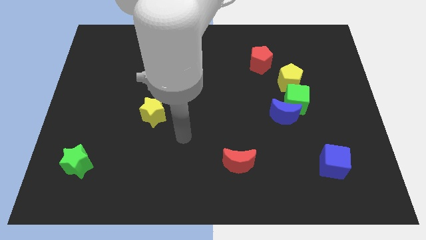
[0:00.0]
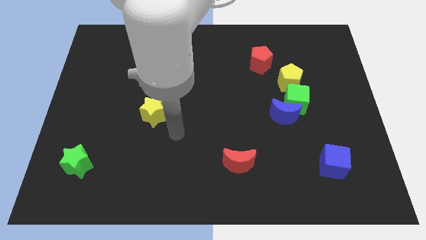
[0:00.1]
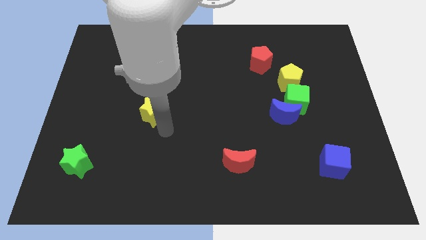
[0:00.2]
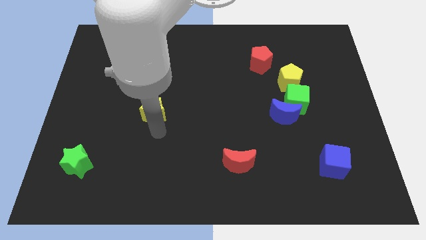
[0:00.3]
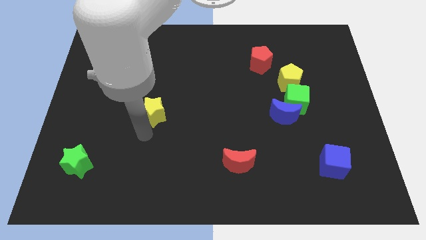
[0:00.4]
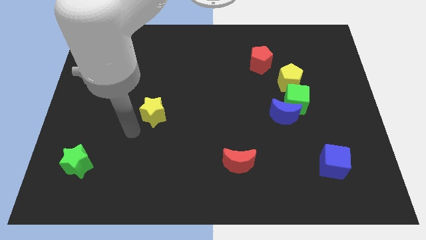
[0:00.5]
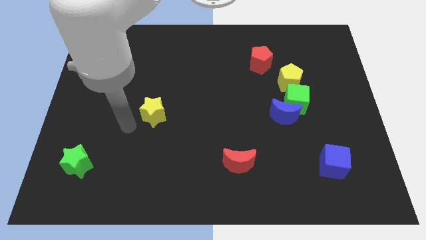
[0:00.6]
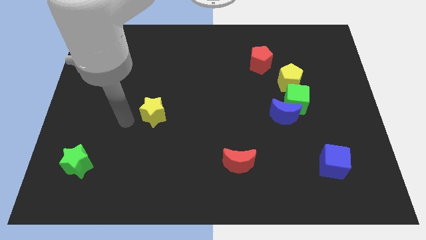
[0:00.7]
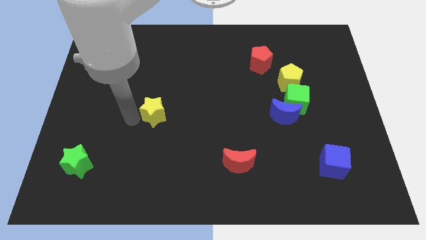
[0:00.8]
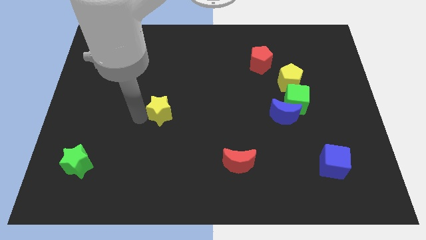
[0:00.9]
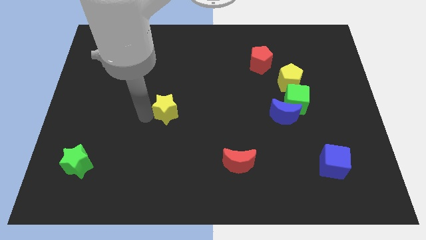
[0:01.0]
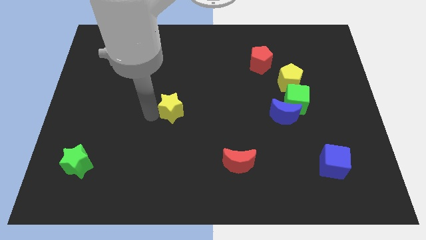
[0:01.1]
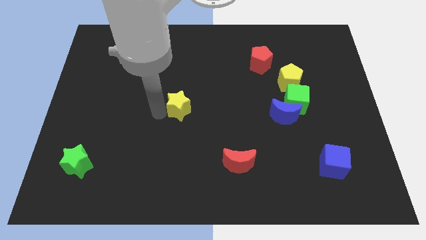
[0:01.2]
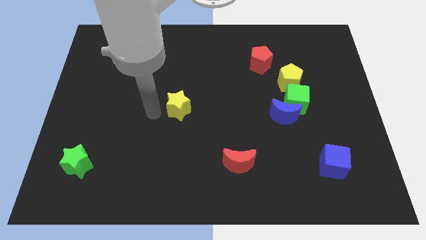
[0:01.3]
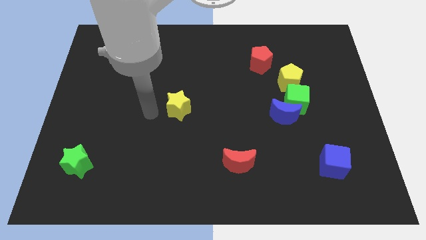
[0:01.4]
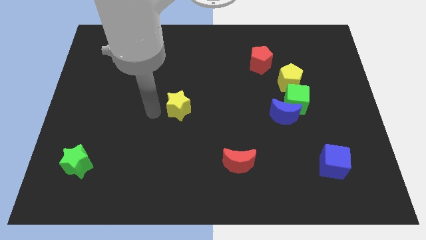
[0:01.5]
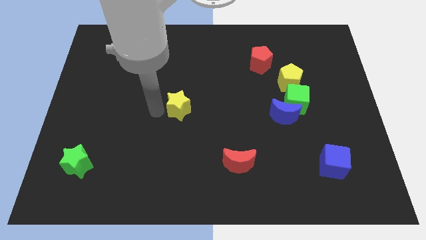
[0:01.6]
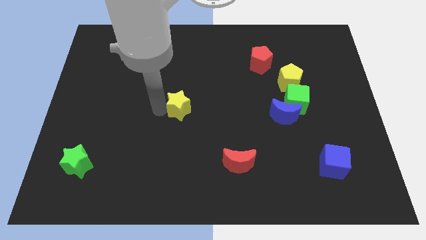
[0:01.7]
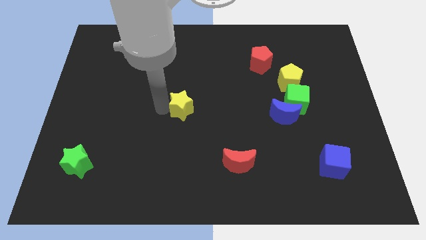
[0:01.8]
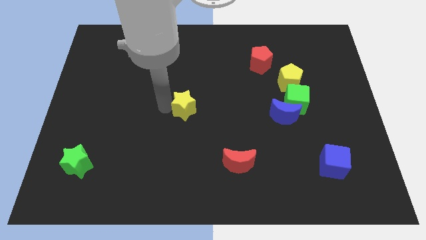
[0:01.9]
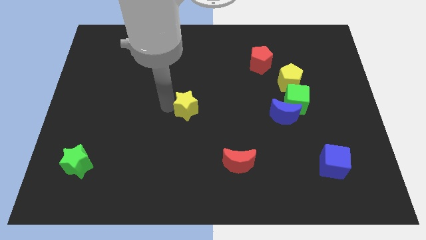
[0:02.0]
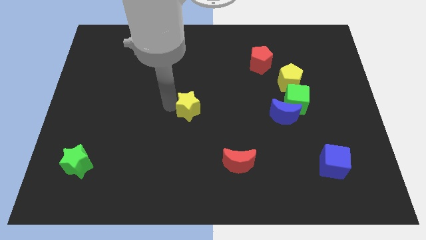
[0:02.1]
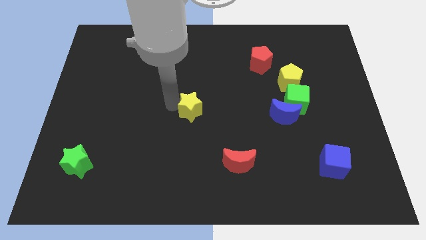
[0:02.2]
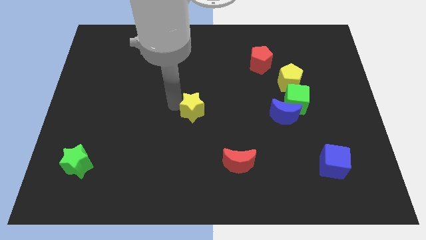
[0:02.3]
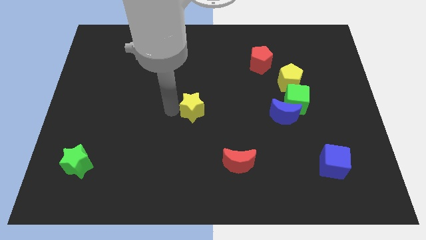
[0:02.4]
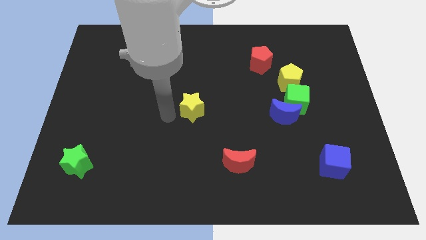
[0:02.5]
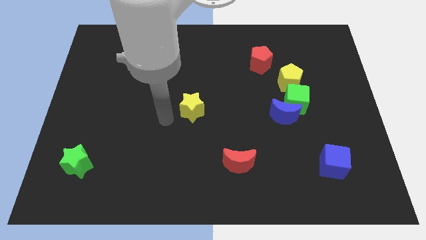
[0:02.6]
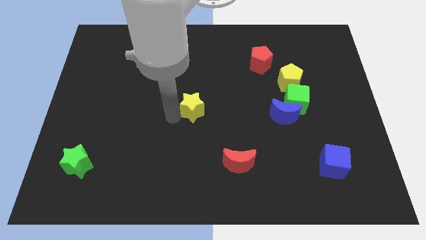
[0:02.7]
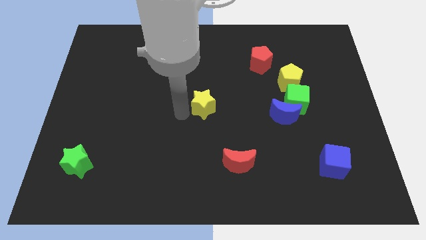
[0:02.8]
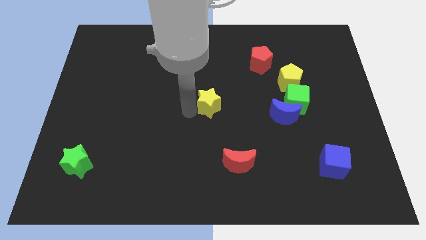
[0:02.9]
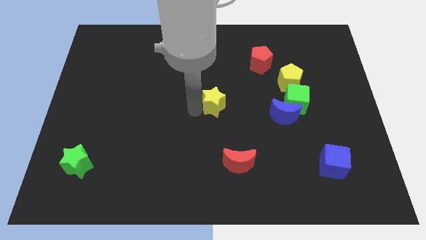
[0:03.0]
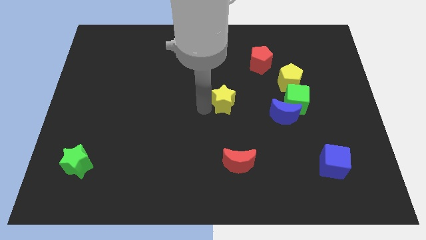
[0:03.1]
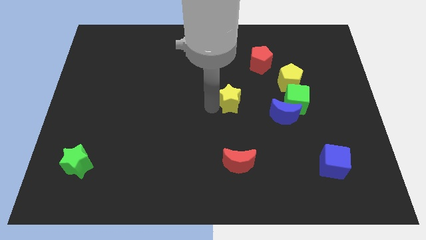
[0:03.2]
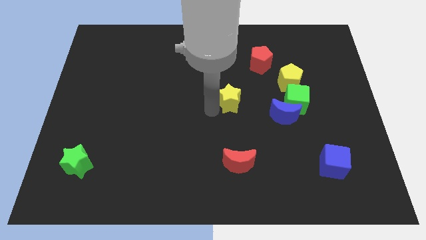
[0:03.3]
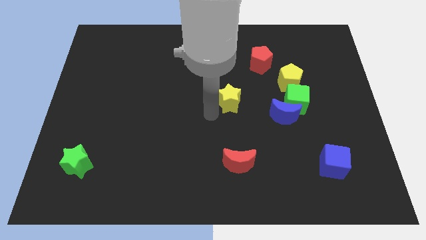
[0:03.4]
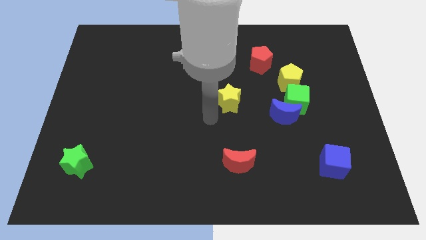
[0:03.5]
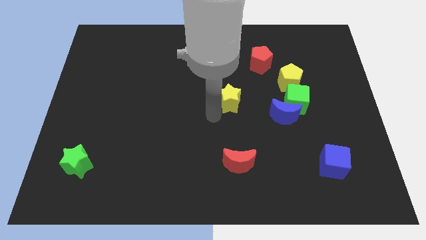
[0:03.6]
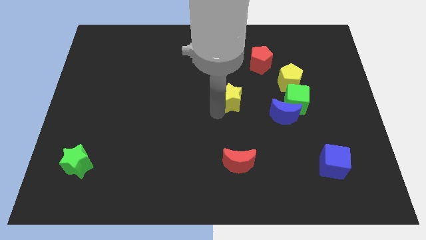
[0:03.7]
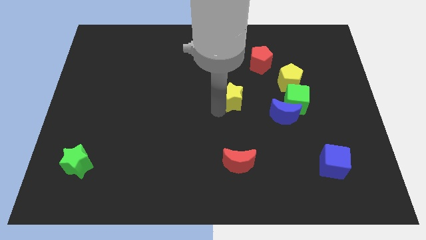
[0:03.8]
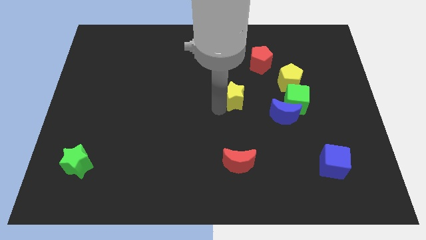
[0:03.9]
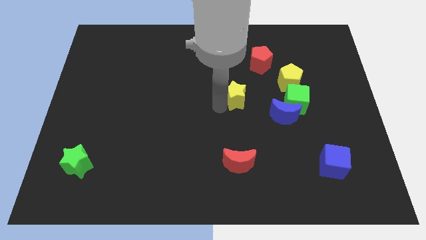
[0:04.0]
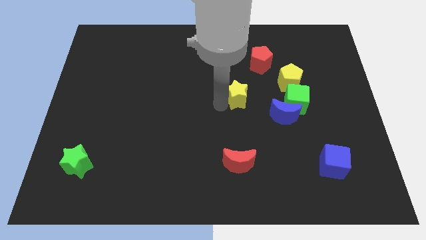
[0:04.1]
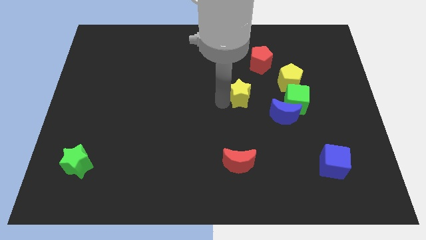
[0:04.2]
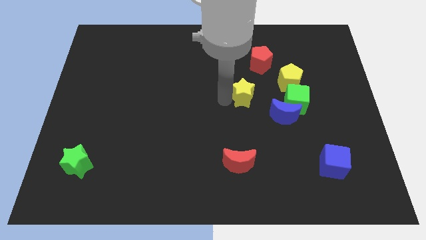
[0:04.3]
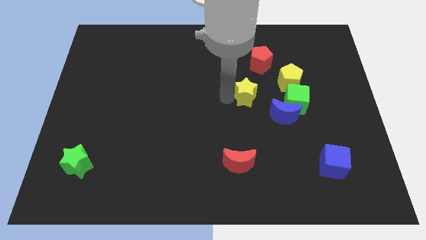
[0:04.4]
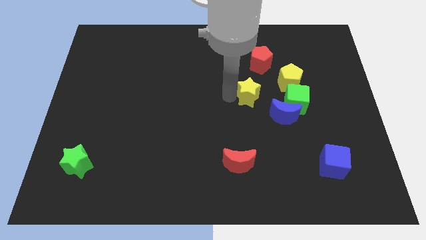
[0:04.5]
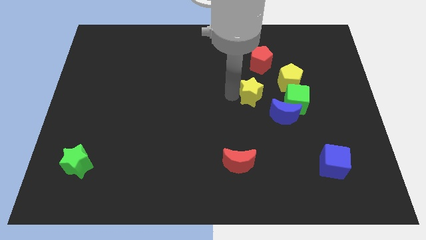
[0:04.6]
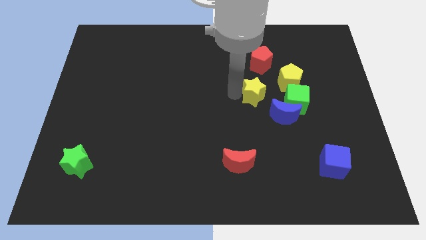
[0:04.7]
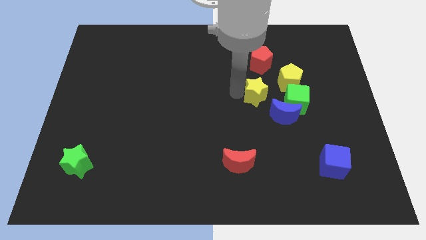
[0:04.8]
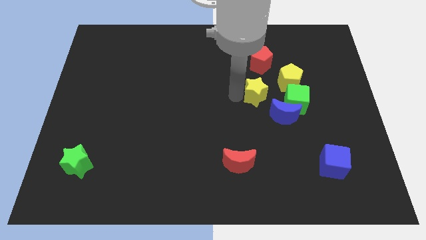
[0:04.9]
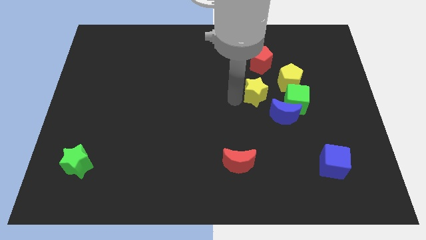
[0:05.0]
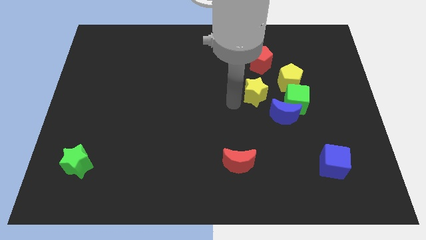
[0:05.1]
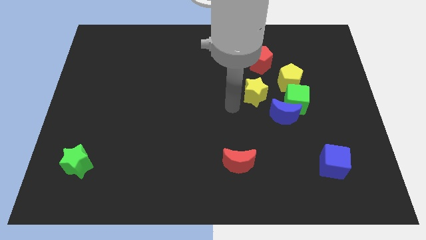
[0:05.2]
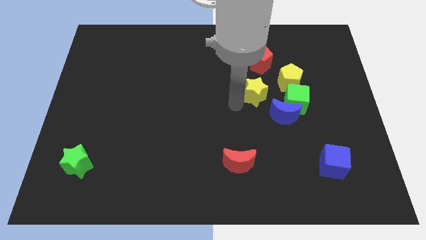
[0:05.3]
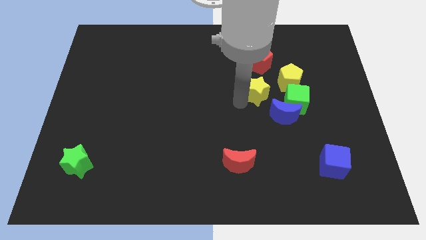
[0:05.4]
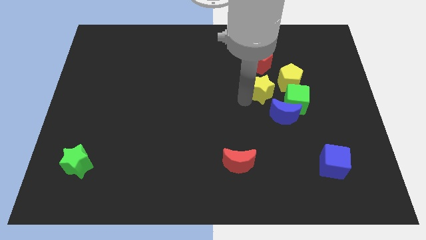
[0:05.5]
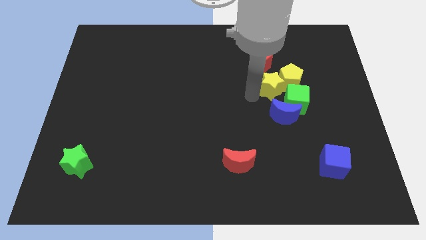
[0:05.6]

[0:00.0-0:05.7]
slide the yellow star to the yellow pentagon

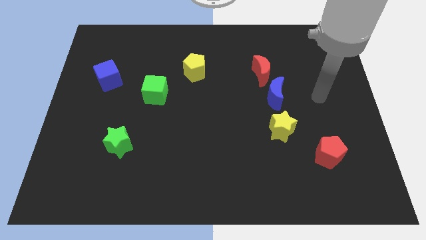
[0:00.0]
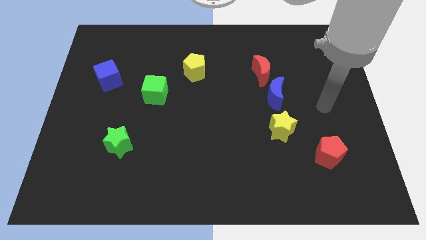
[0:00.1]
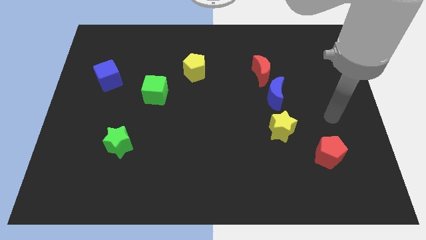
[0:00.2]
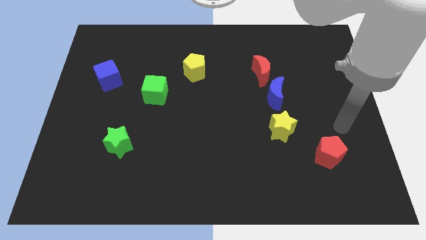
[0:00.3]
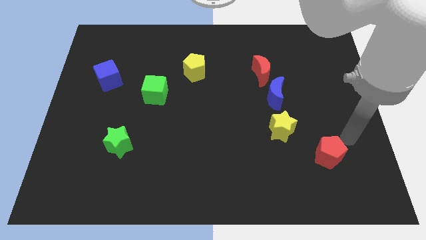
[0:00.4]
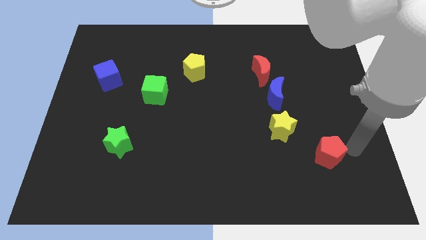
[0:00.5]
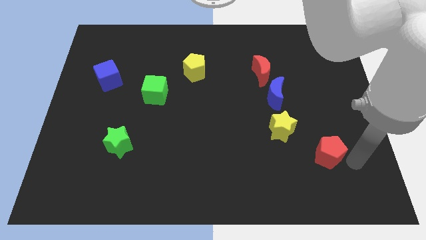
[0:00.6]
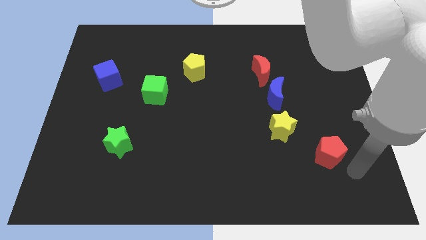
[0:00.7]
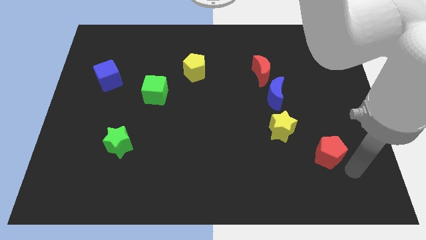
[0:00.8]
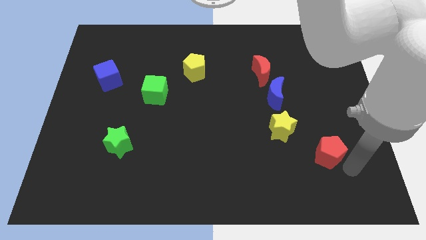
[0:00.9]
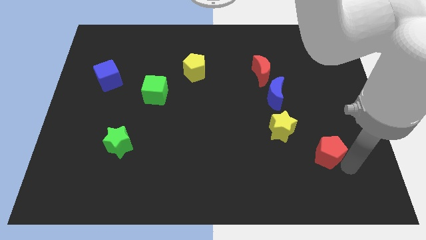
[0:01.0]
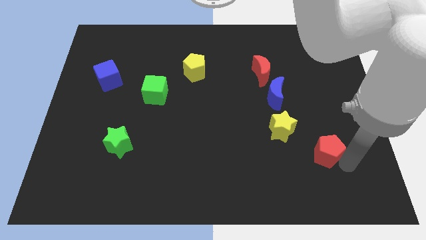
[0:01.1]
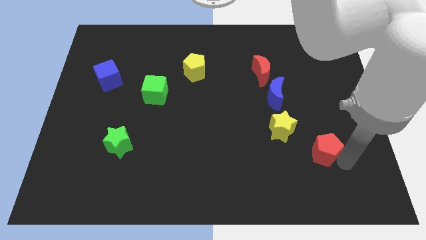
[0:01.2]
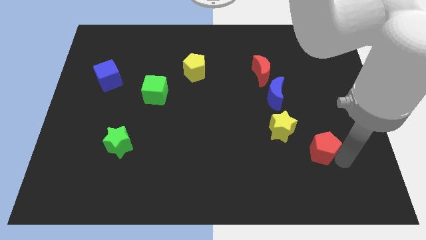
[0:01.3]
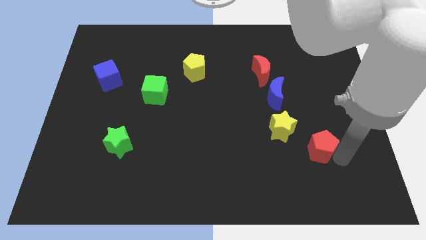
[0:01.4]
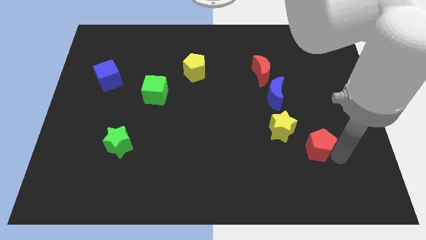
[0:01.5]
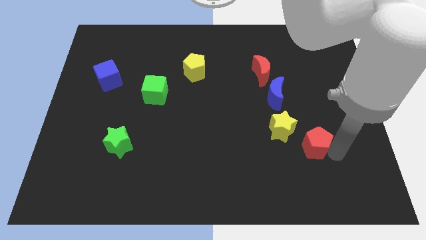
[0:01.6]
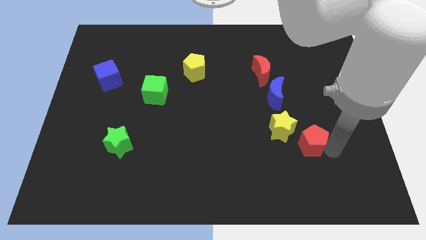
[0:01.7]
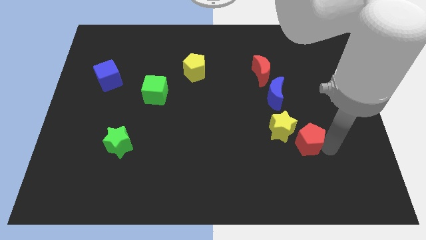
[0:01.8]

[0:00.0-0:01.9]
slide the red pentagon close to the yellow star
